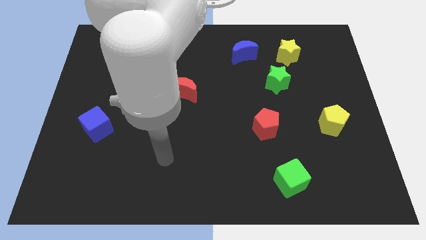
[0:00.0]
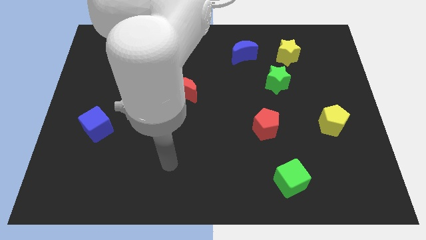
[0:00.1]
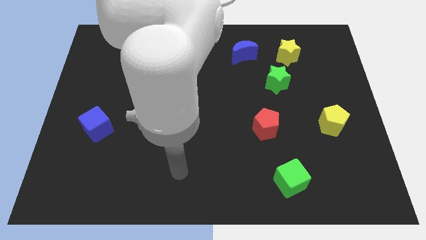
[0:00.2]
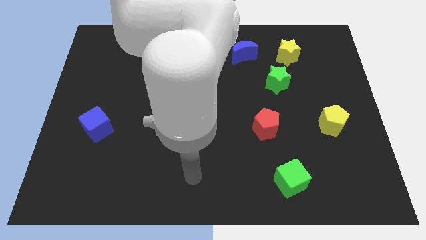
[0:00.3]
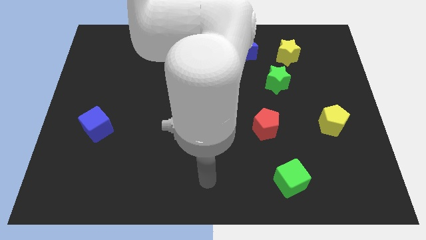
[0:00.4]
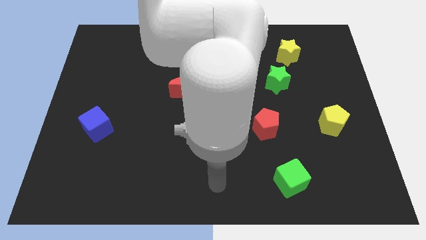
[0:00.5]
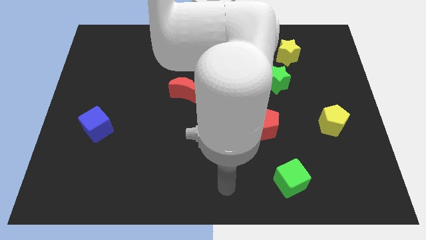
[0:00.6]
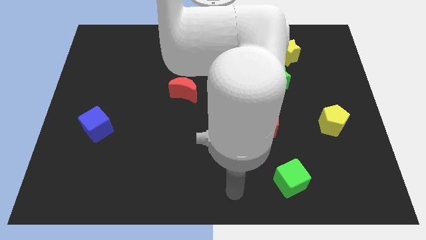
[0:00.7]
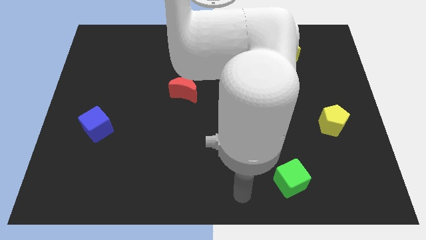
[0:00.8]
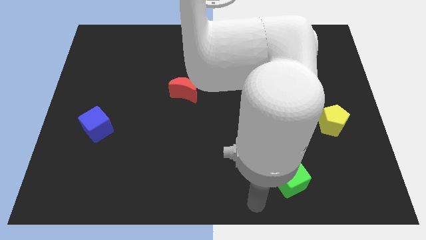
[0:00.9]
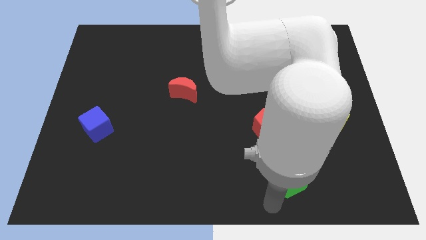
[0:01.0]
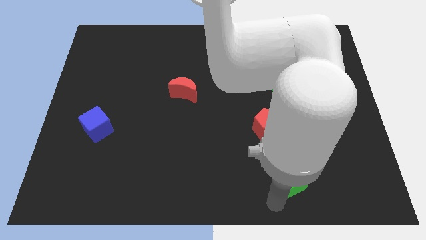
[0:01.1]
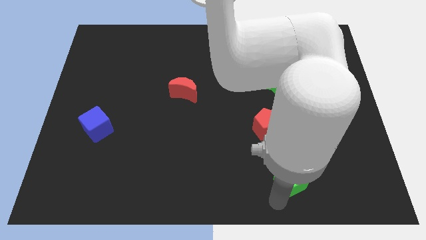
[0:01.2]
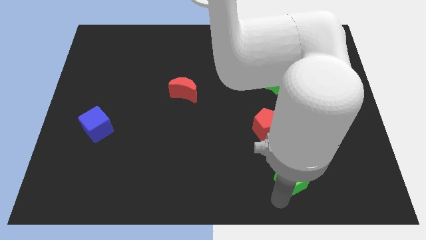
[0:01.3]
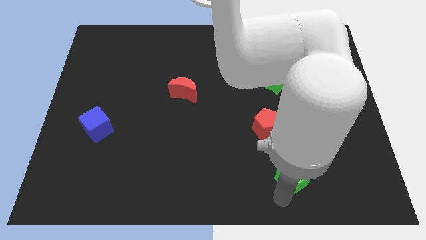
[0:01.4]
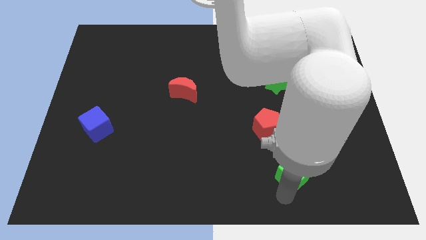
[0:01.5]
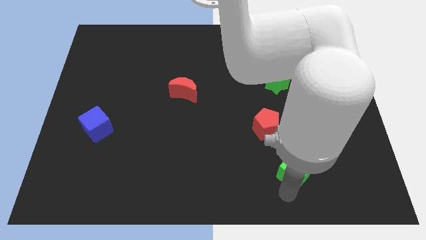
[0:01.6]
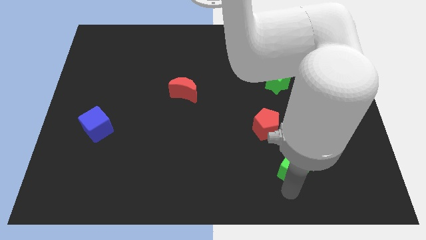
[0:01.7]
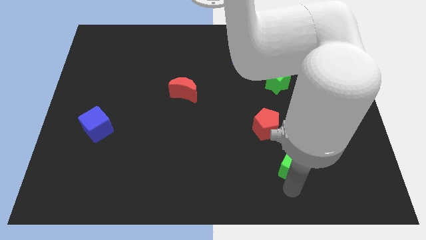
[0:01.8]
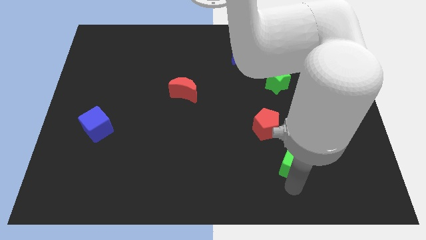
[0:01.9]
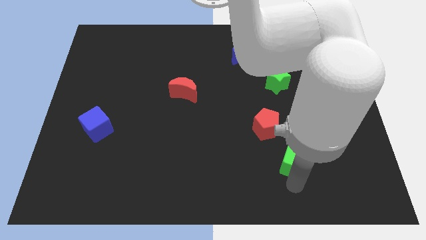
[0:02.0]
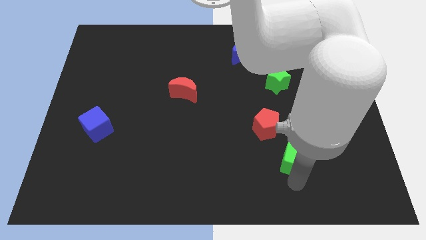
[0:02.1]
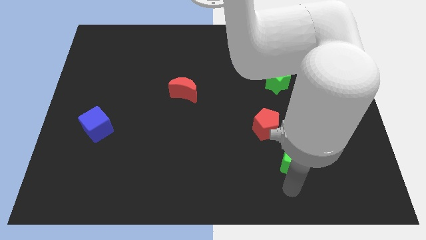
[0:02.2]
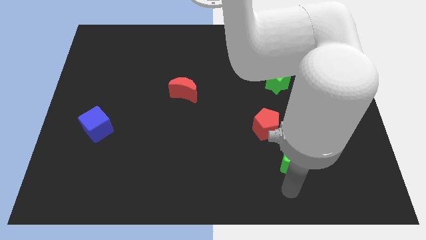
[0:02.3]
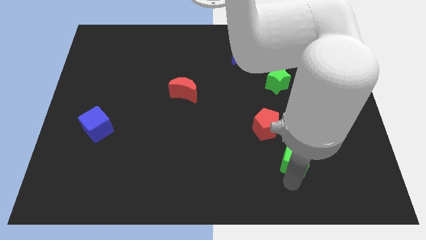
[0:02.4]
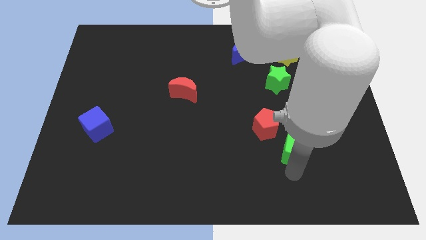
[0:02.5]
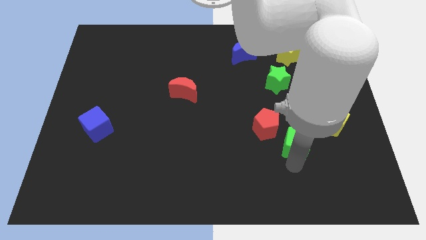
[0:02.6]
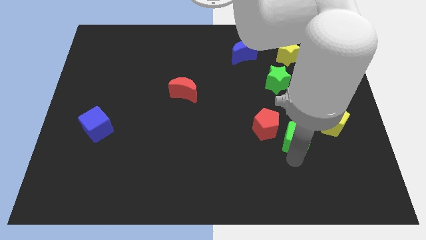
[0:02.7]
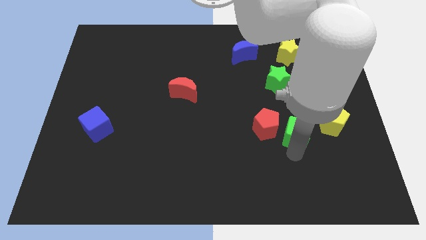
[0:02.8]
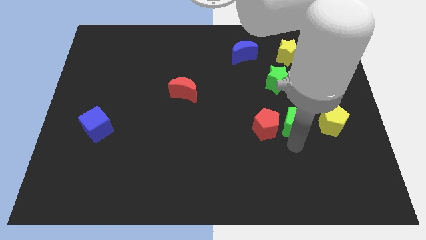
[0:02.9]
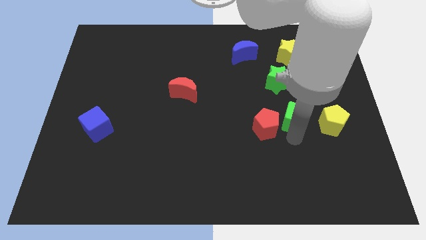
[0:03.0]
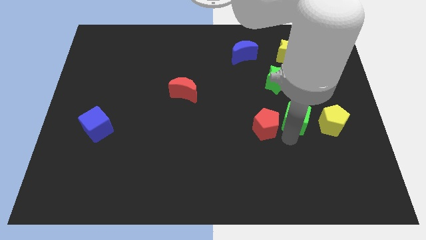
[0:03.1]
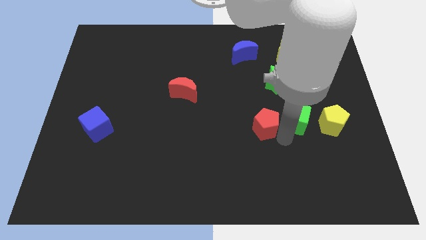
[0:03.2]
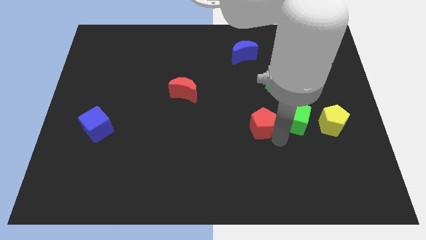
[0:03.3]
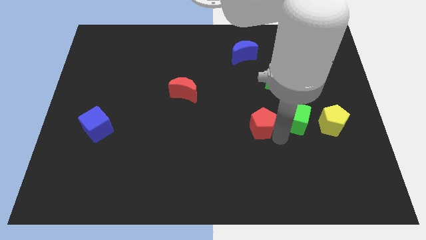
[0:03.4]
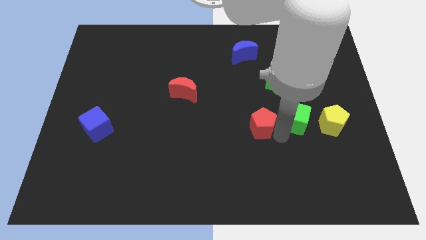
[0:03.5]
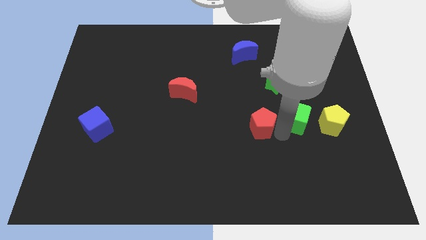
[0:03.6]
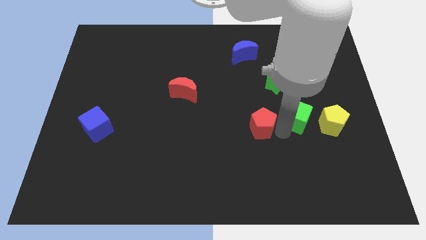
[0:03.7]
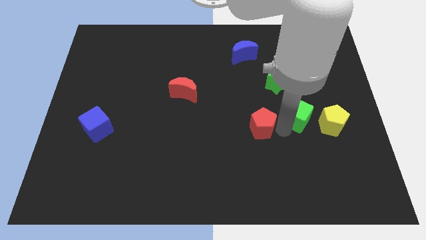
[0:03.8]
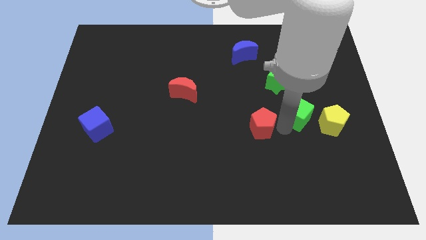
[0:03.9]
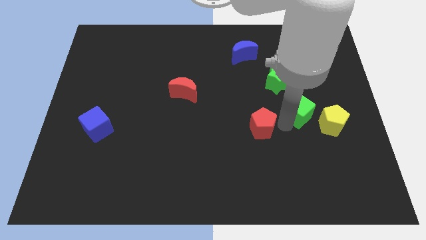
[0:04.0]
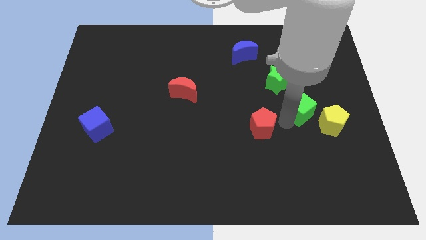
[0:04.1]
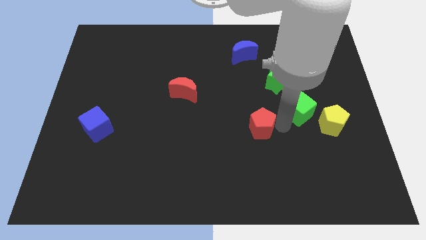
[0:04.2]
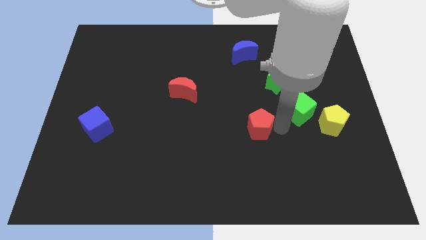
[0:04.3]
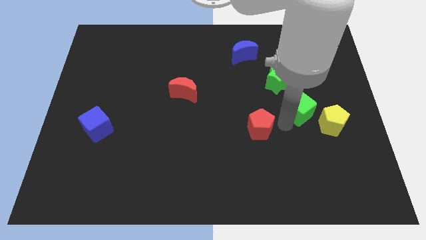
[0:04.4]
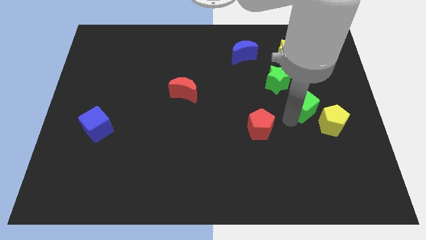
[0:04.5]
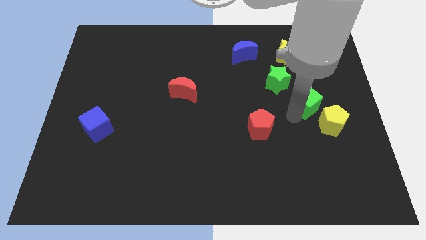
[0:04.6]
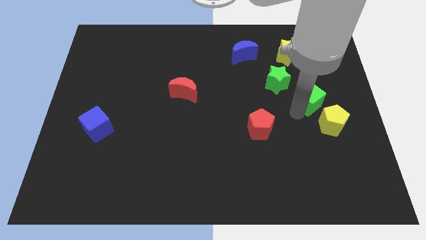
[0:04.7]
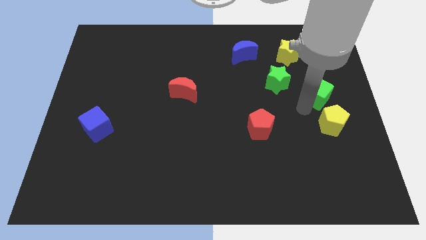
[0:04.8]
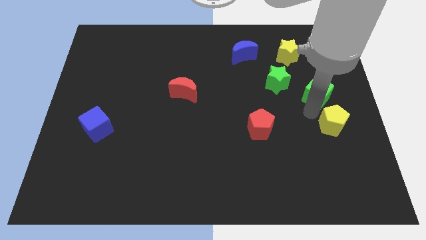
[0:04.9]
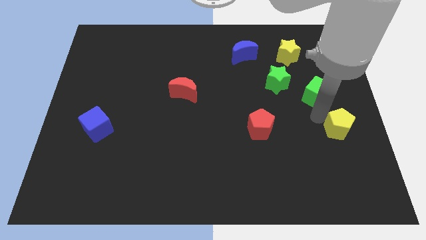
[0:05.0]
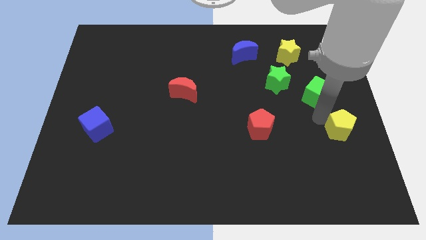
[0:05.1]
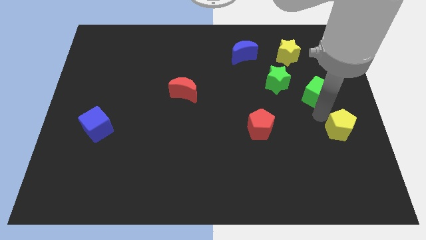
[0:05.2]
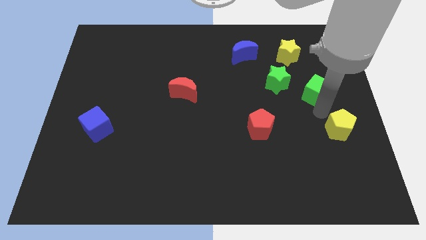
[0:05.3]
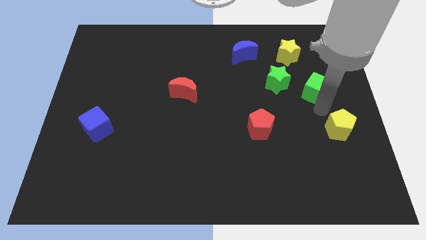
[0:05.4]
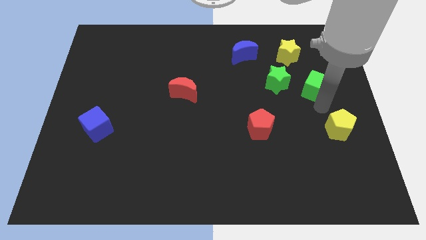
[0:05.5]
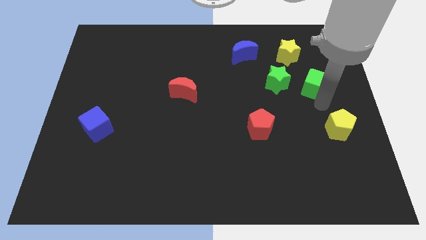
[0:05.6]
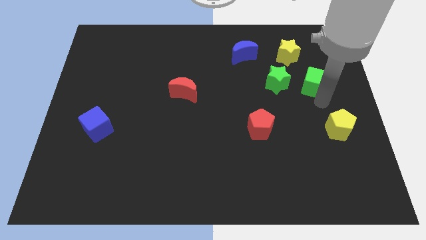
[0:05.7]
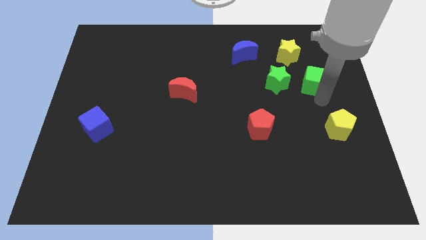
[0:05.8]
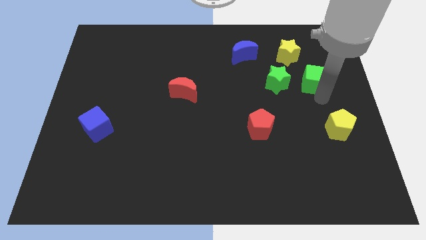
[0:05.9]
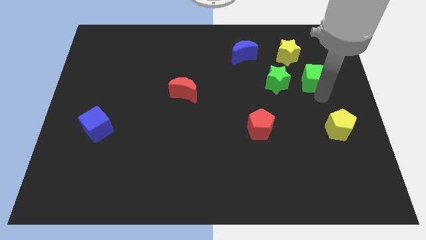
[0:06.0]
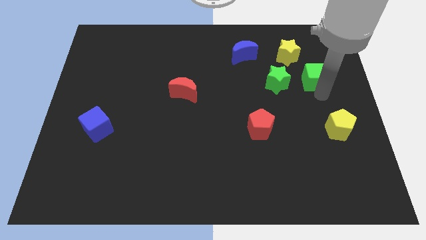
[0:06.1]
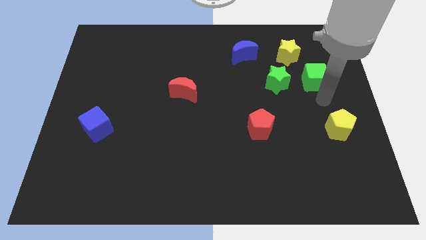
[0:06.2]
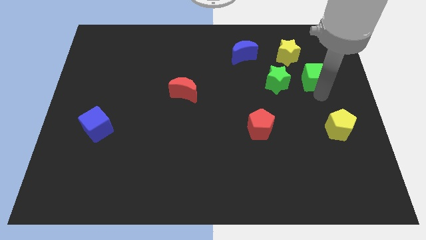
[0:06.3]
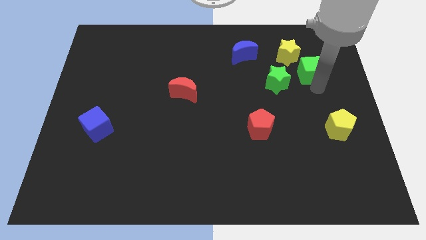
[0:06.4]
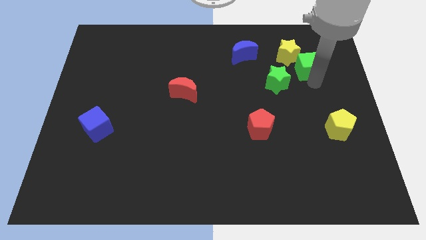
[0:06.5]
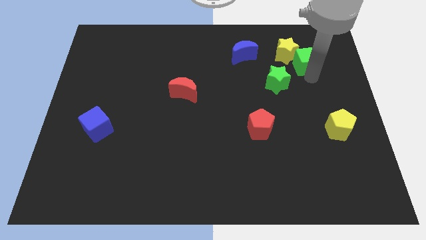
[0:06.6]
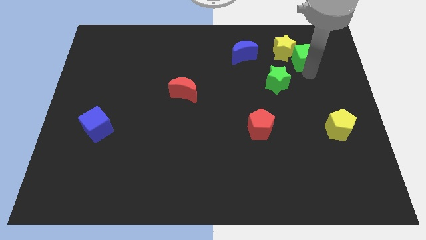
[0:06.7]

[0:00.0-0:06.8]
put the green cube to the right of the blue moon

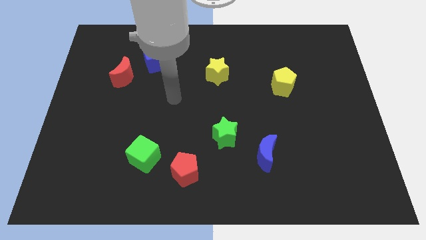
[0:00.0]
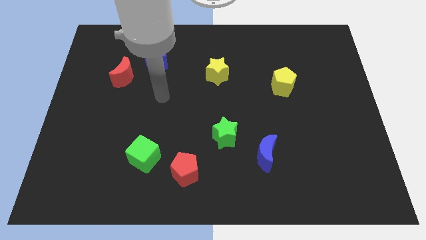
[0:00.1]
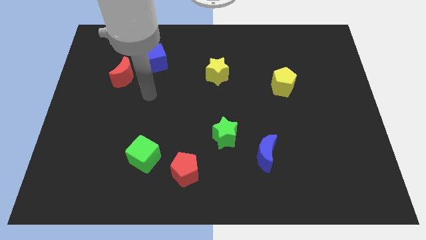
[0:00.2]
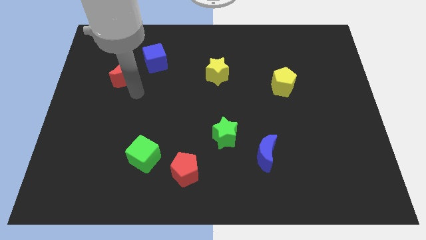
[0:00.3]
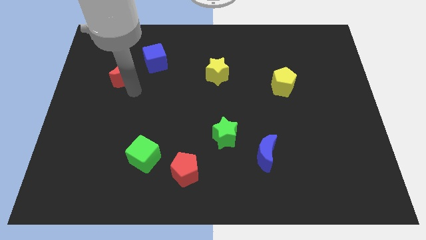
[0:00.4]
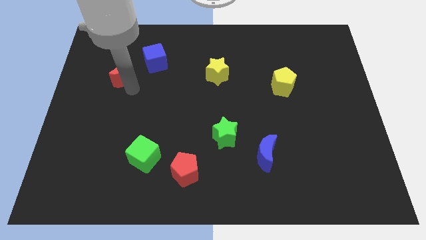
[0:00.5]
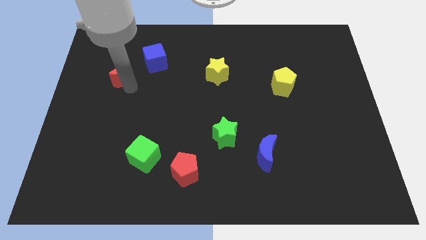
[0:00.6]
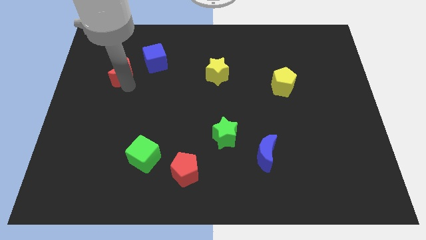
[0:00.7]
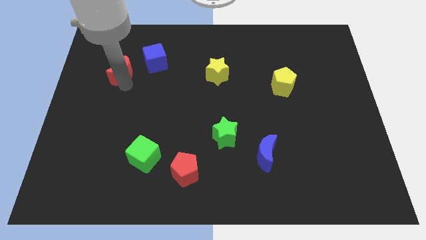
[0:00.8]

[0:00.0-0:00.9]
move the red moon to the left side of the blue cube

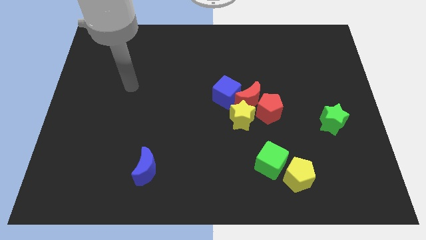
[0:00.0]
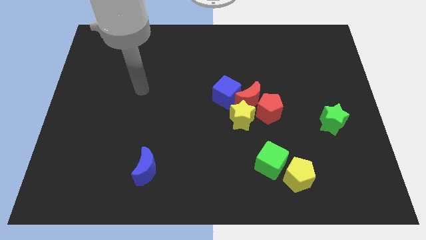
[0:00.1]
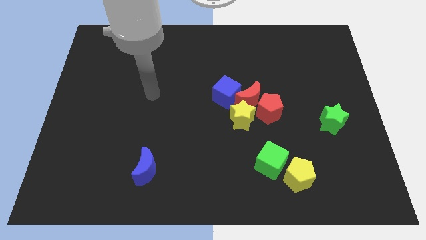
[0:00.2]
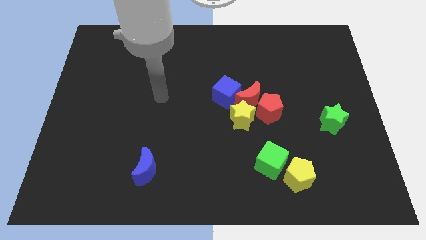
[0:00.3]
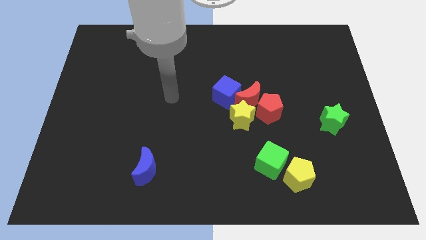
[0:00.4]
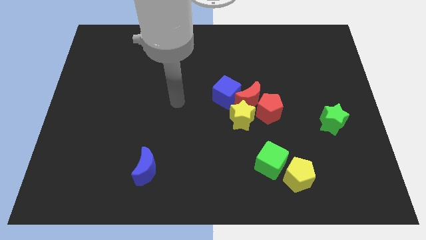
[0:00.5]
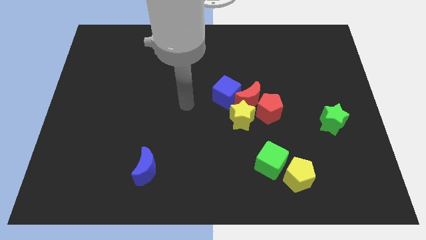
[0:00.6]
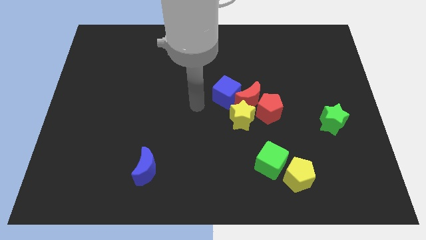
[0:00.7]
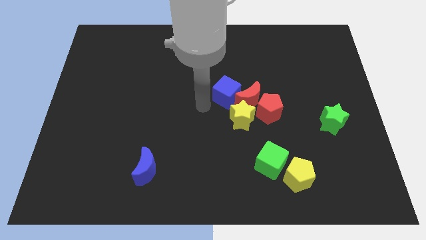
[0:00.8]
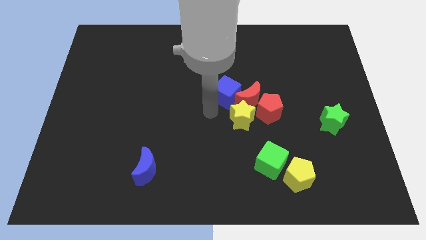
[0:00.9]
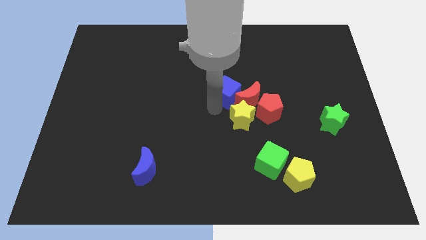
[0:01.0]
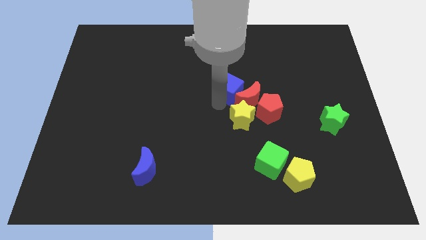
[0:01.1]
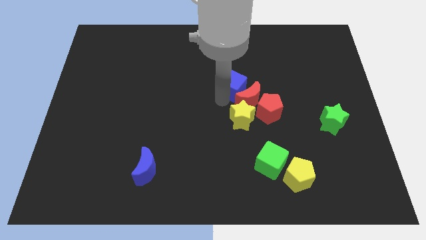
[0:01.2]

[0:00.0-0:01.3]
put the blue cube to the top of the red moon
